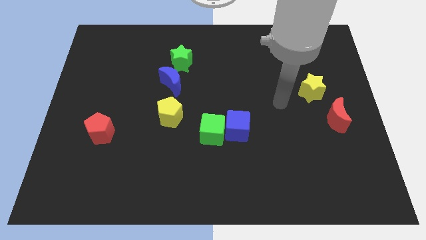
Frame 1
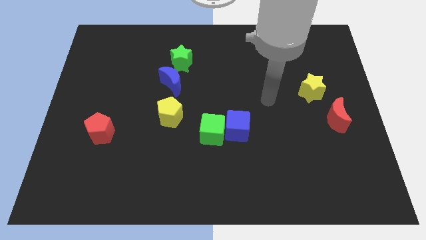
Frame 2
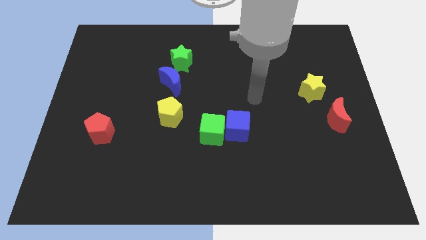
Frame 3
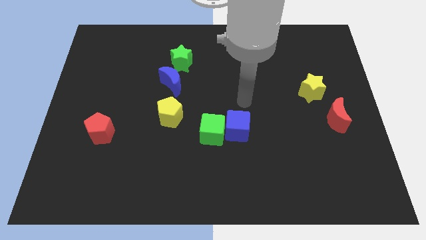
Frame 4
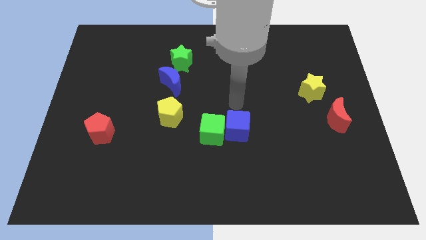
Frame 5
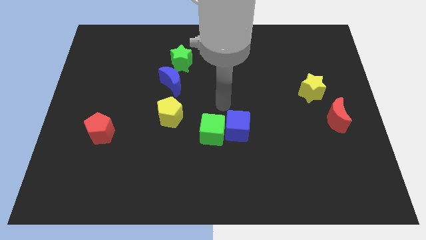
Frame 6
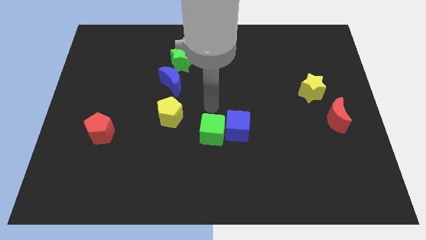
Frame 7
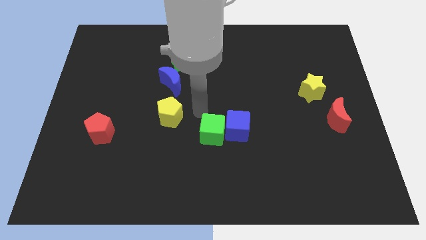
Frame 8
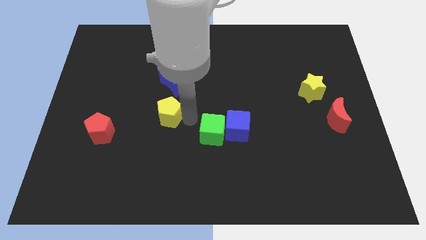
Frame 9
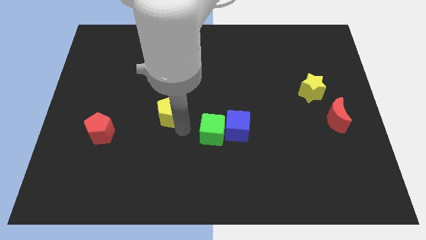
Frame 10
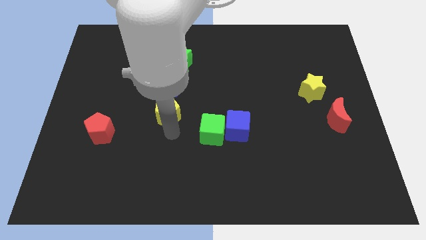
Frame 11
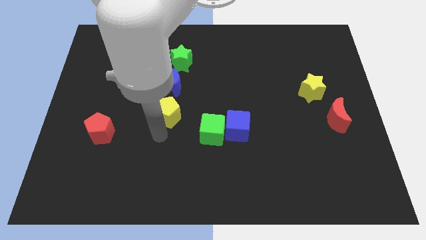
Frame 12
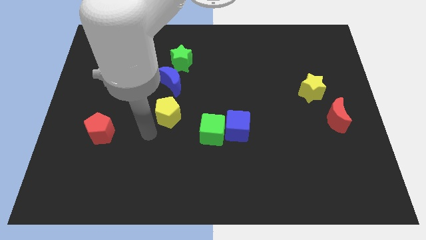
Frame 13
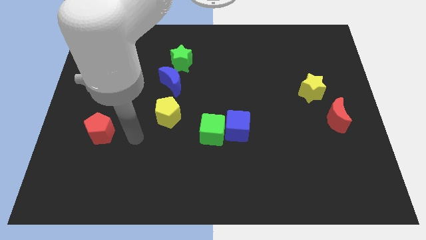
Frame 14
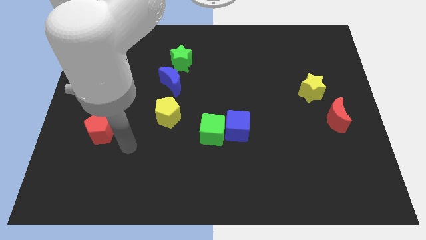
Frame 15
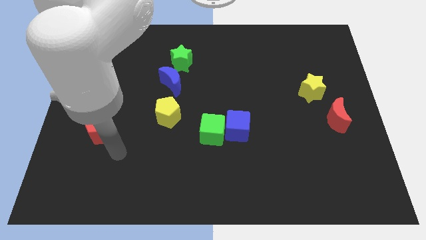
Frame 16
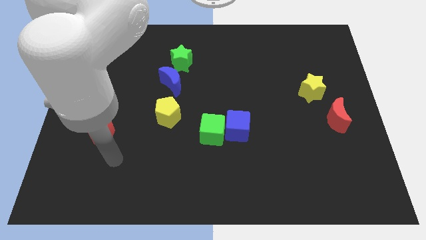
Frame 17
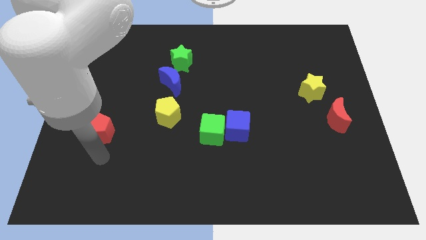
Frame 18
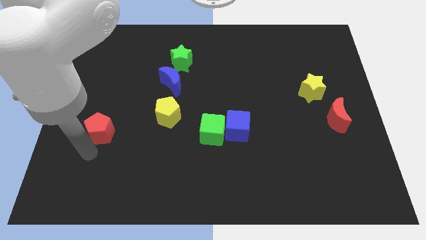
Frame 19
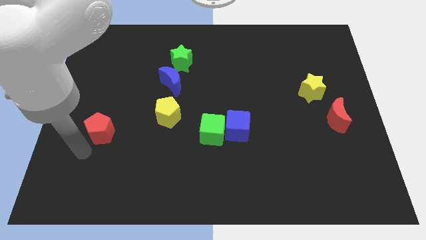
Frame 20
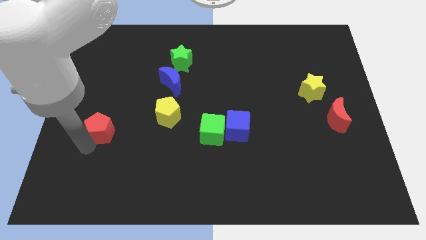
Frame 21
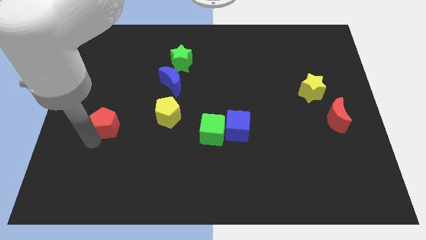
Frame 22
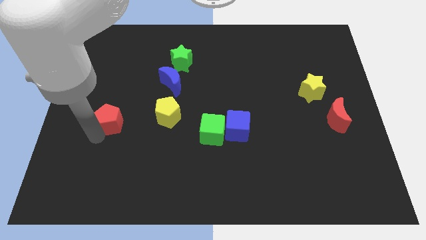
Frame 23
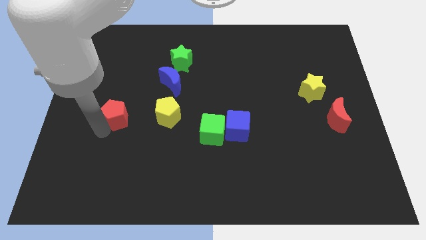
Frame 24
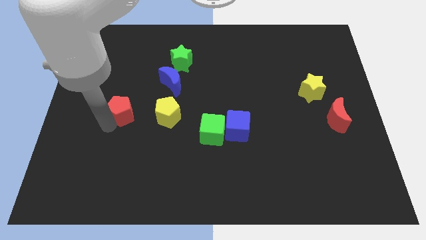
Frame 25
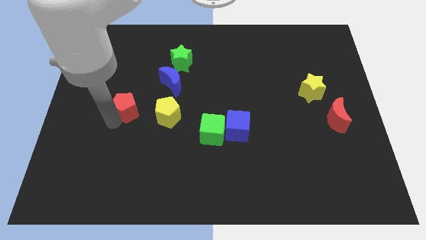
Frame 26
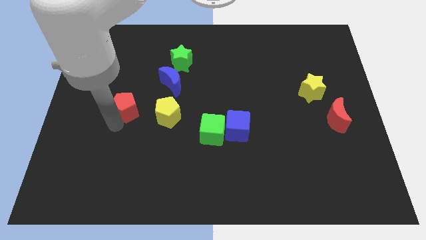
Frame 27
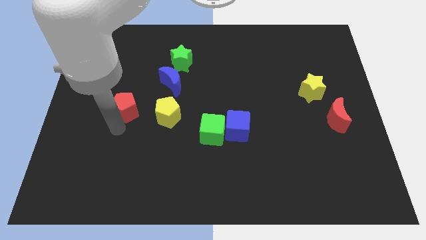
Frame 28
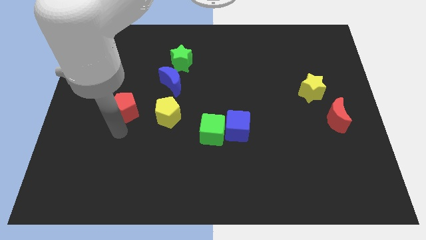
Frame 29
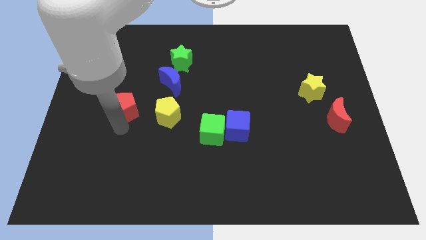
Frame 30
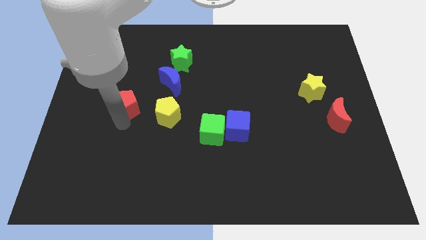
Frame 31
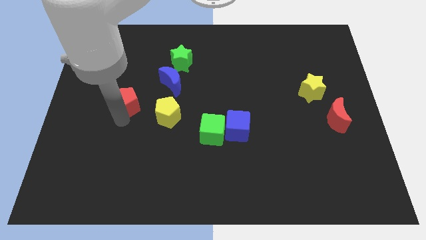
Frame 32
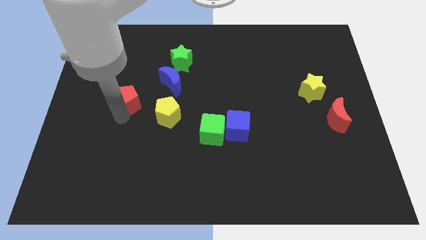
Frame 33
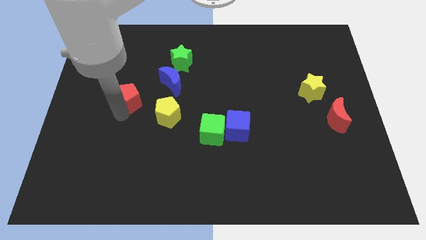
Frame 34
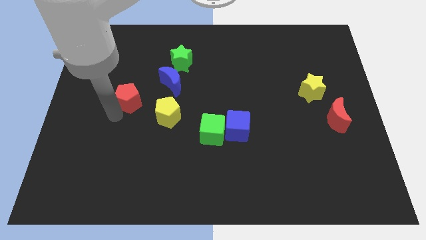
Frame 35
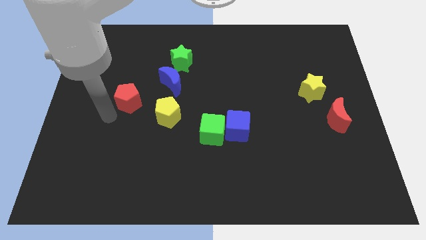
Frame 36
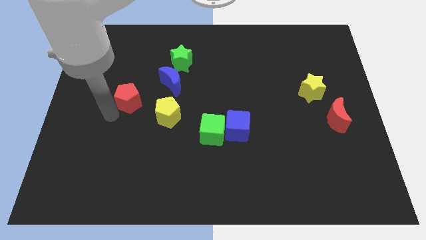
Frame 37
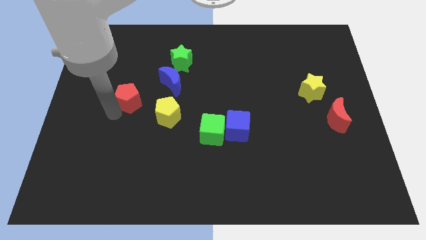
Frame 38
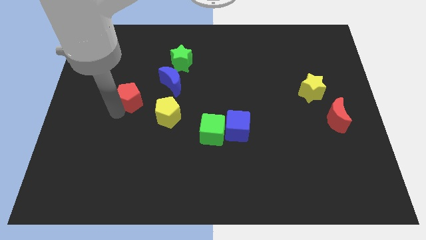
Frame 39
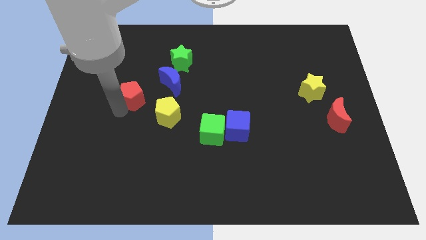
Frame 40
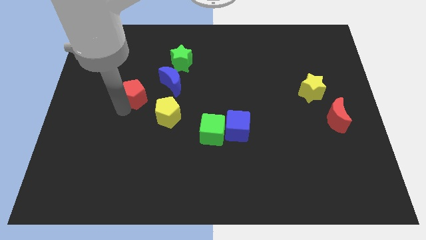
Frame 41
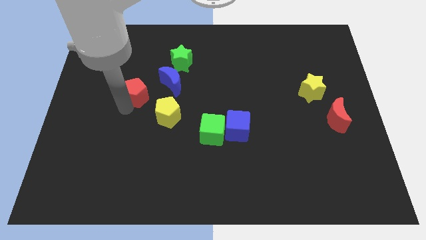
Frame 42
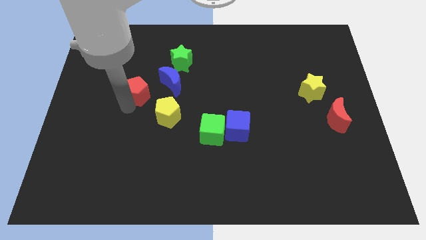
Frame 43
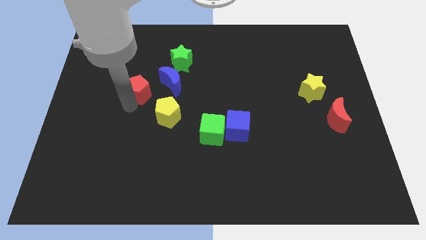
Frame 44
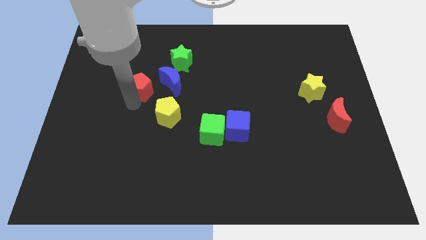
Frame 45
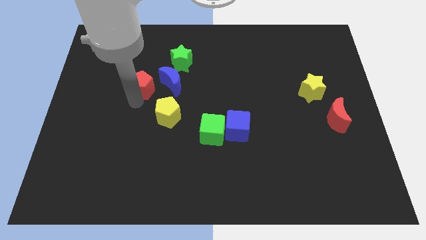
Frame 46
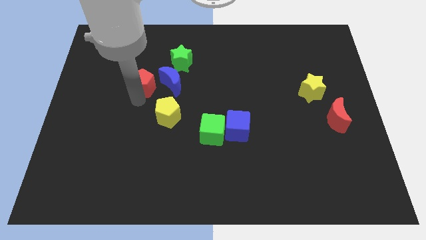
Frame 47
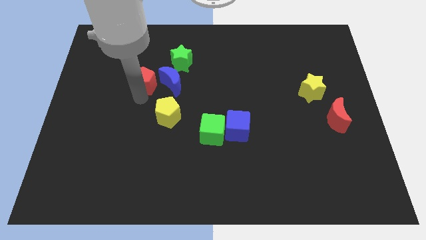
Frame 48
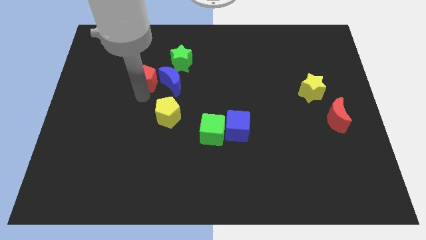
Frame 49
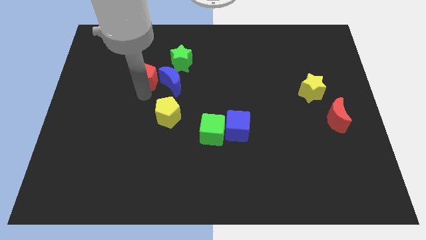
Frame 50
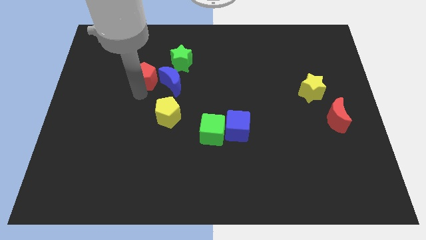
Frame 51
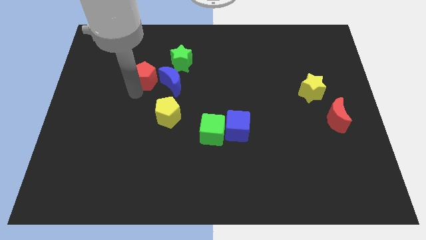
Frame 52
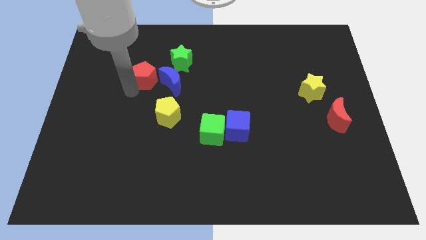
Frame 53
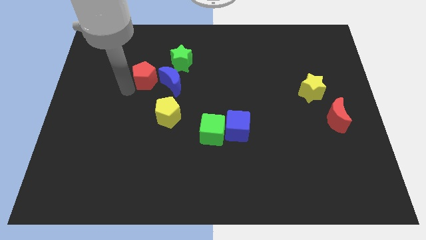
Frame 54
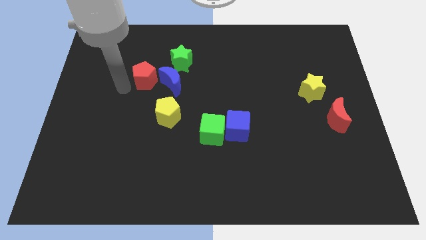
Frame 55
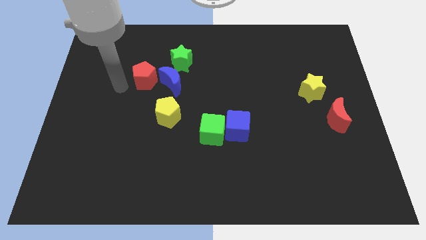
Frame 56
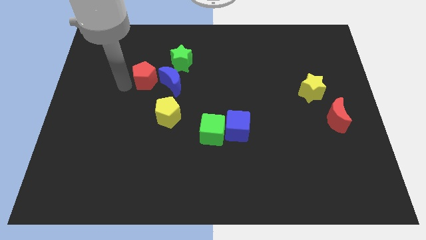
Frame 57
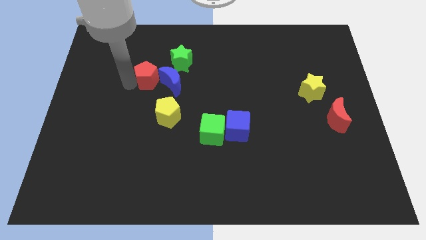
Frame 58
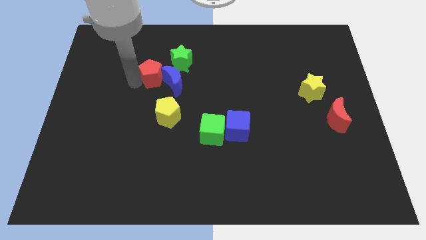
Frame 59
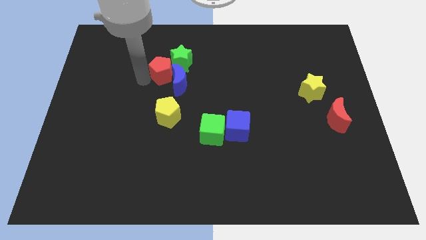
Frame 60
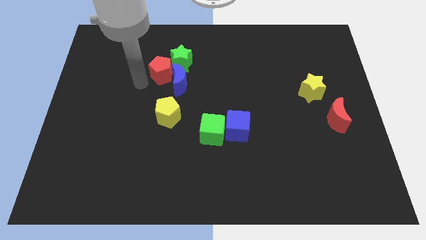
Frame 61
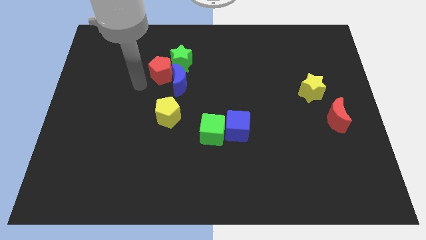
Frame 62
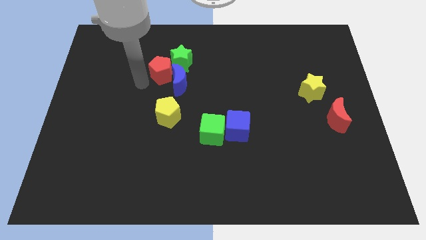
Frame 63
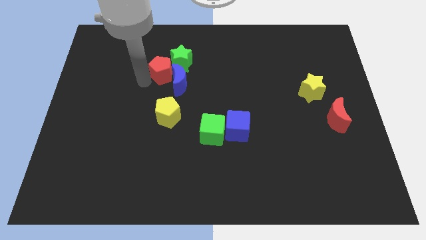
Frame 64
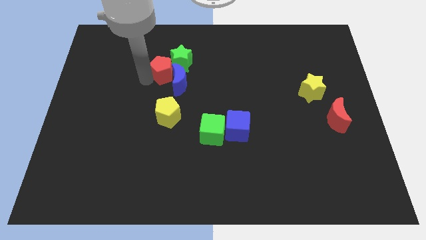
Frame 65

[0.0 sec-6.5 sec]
slide the red pentagon next to the green star

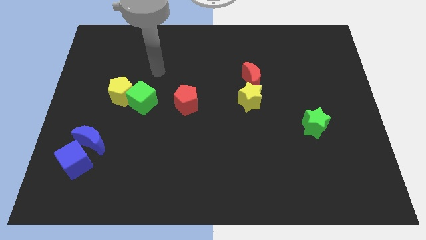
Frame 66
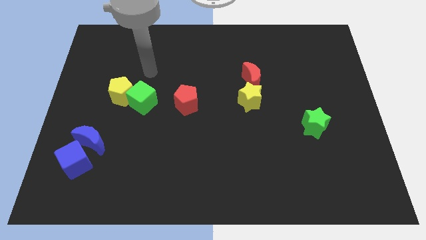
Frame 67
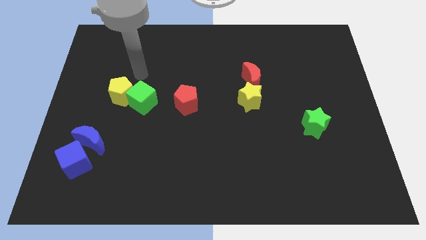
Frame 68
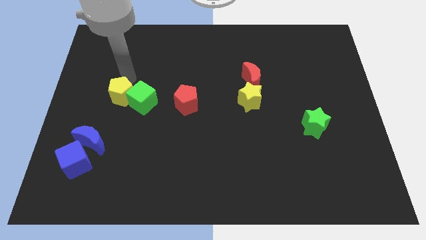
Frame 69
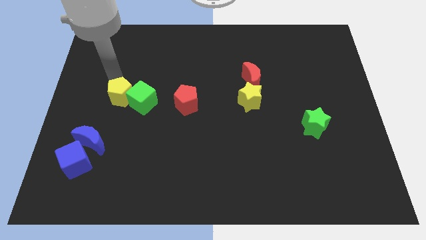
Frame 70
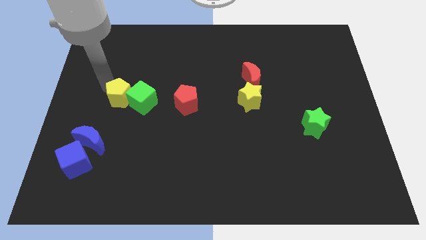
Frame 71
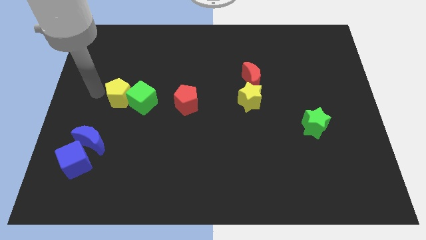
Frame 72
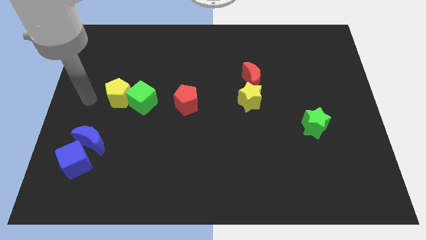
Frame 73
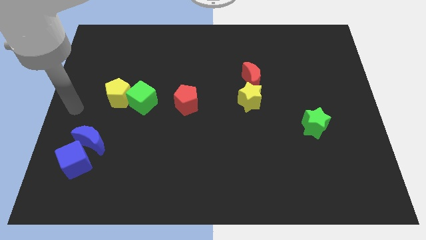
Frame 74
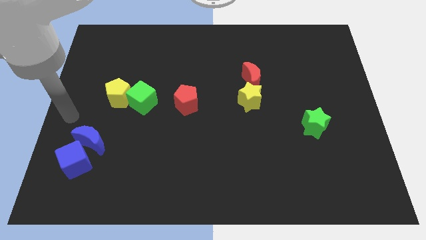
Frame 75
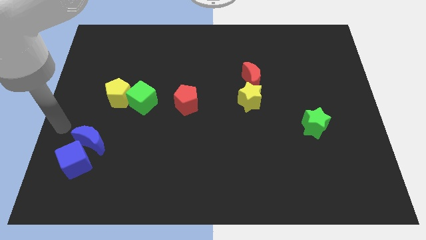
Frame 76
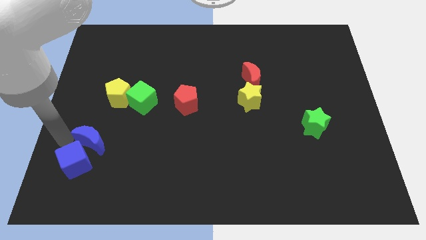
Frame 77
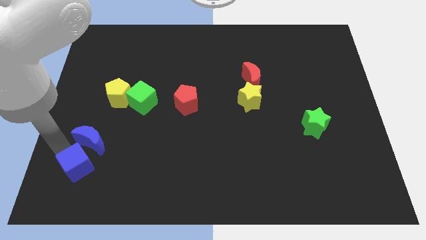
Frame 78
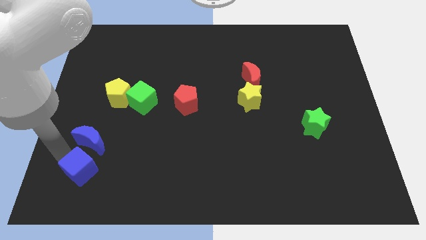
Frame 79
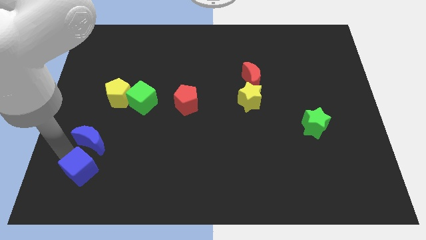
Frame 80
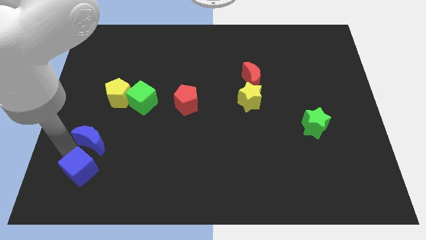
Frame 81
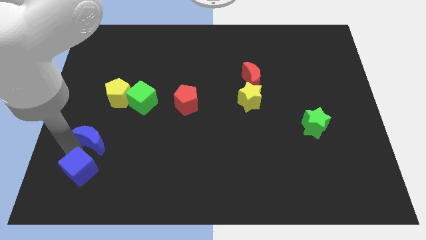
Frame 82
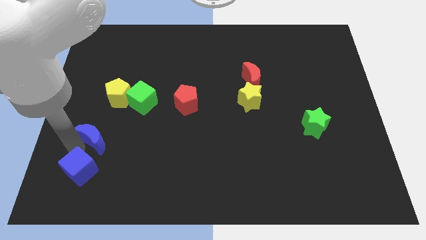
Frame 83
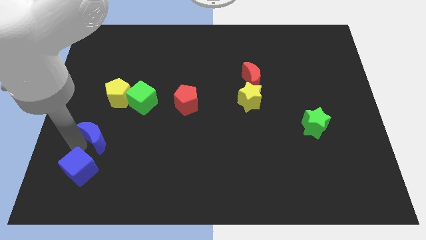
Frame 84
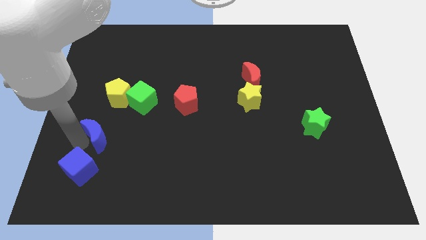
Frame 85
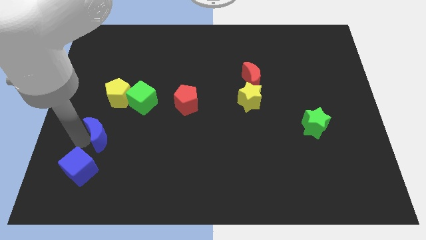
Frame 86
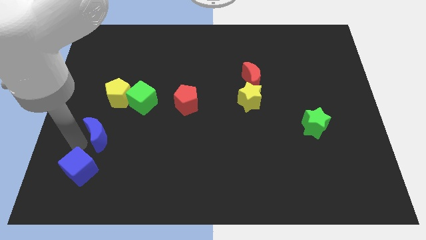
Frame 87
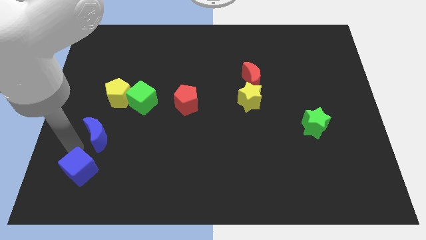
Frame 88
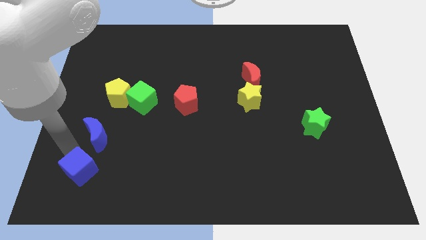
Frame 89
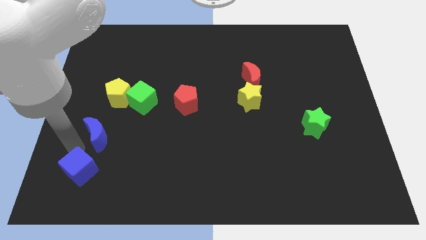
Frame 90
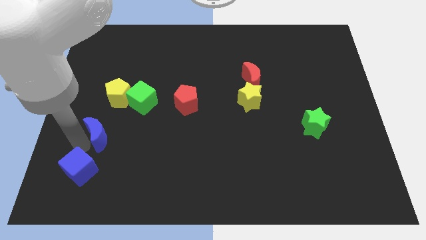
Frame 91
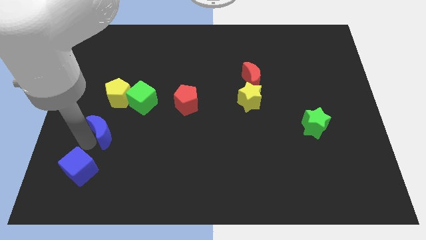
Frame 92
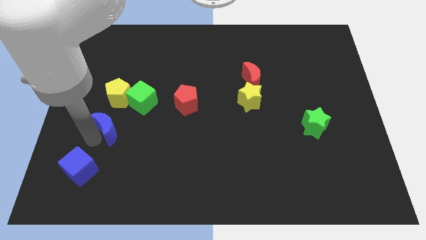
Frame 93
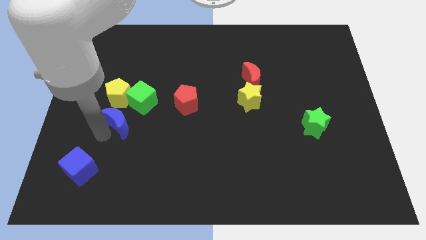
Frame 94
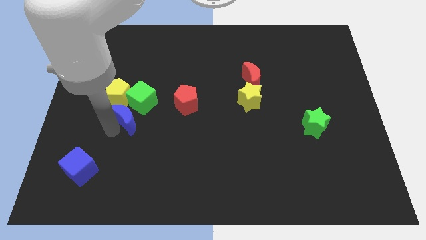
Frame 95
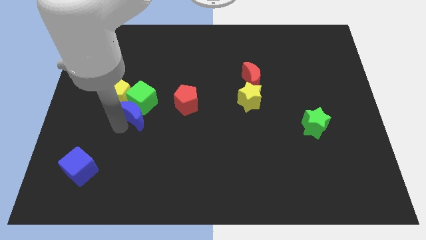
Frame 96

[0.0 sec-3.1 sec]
put the blue moon towards the green cube
